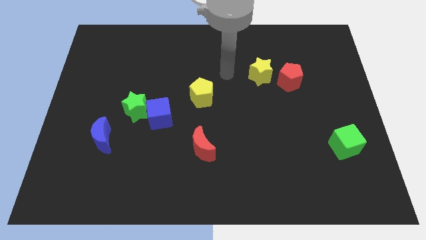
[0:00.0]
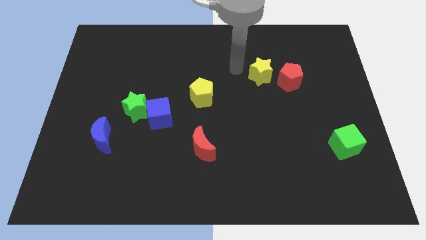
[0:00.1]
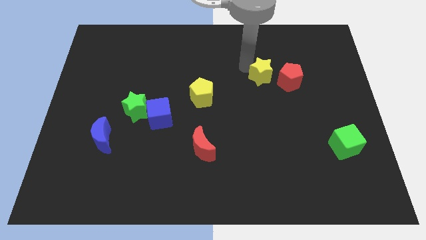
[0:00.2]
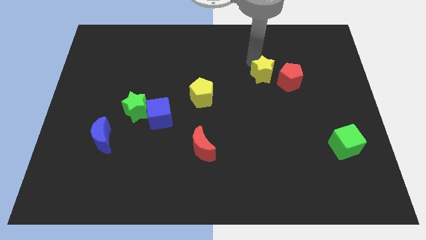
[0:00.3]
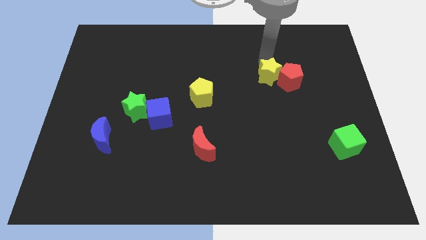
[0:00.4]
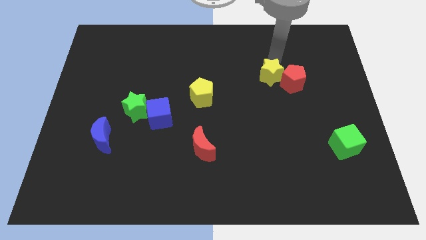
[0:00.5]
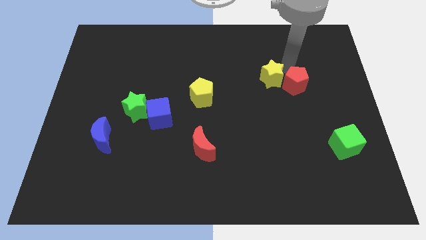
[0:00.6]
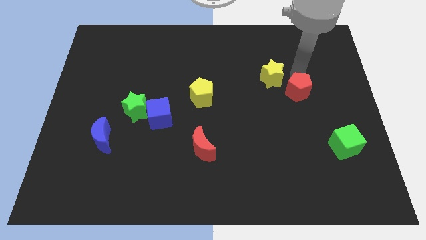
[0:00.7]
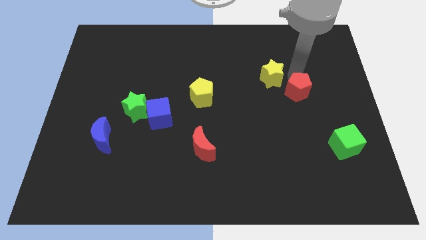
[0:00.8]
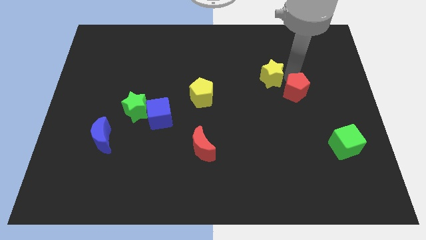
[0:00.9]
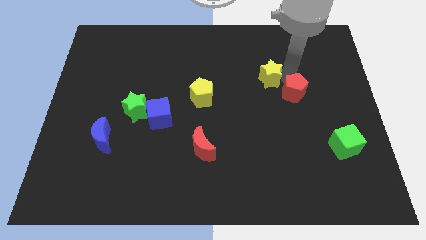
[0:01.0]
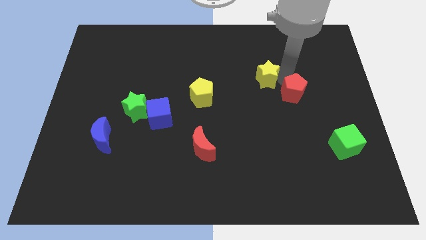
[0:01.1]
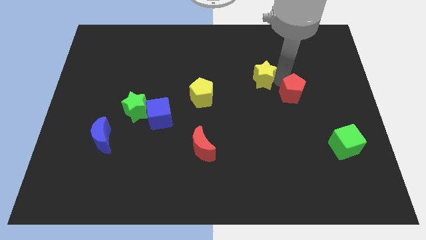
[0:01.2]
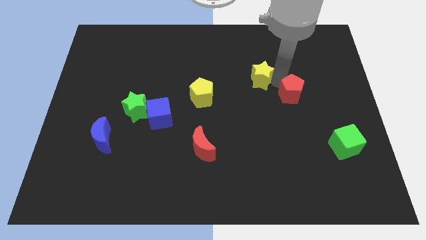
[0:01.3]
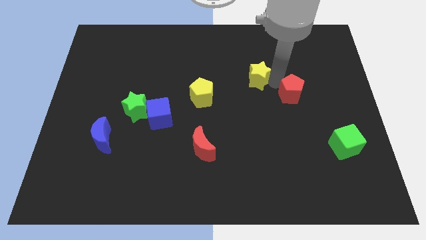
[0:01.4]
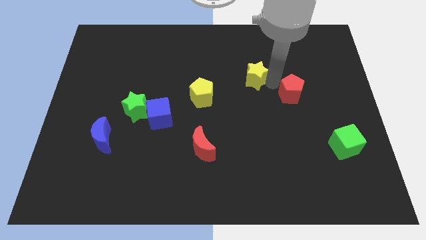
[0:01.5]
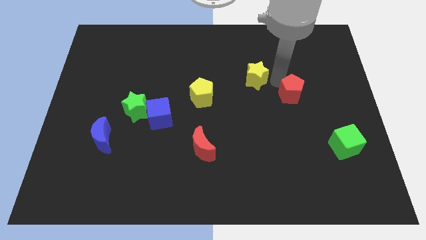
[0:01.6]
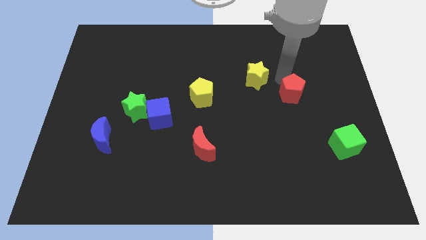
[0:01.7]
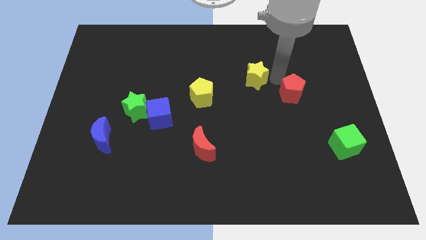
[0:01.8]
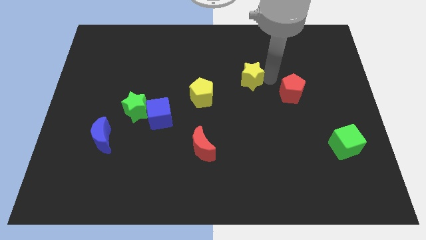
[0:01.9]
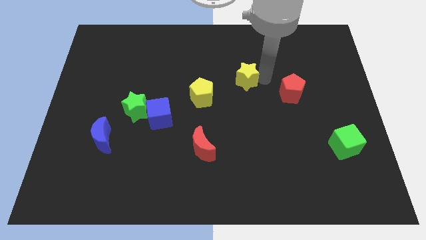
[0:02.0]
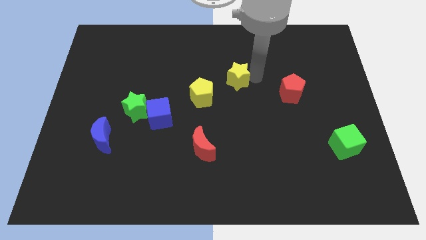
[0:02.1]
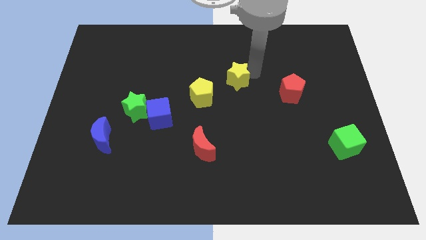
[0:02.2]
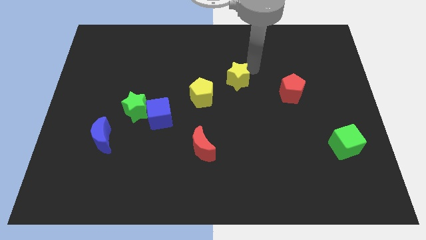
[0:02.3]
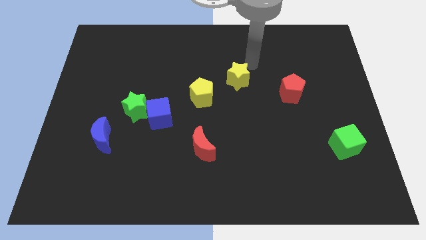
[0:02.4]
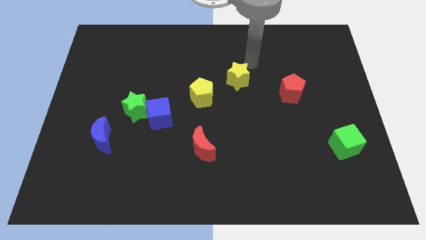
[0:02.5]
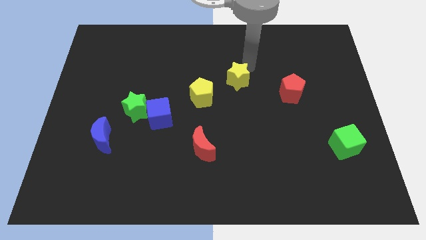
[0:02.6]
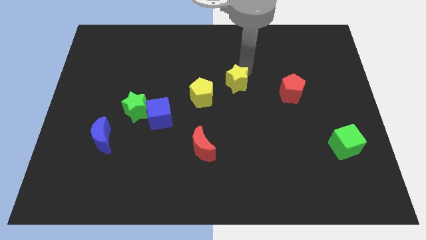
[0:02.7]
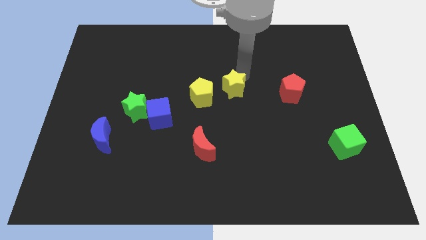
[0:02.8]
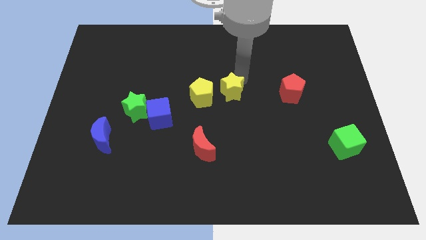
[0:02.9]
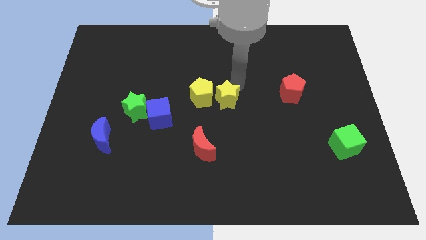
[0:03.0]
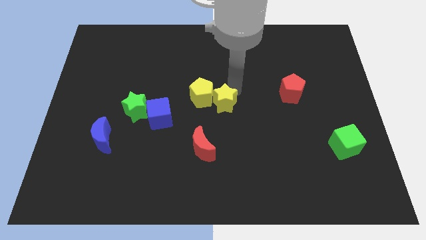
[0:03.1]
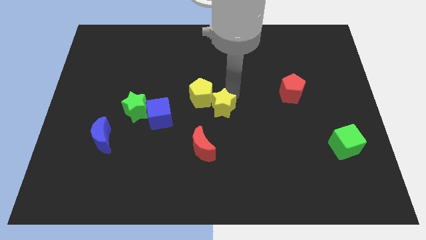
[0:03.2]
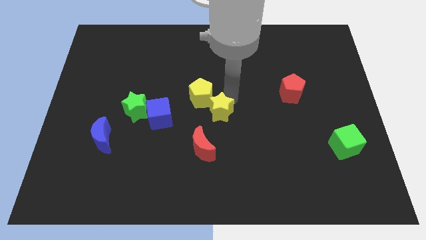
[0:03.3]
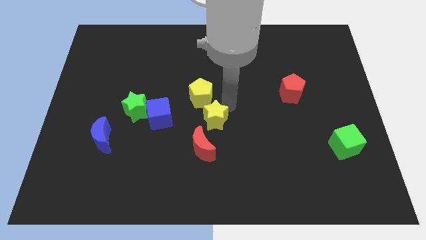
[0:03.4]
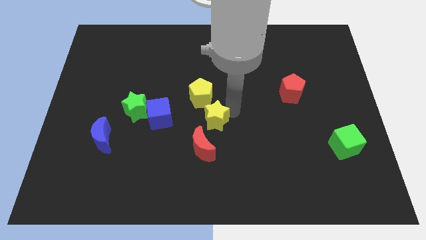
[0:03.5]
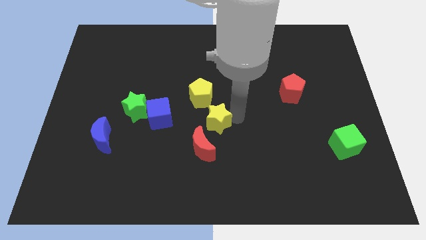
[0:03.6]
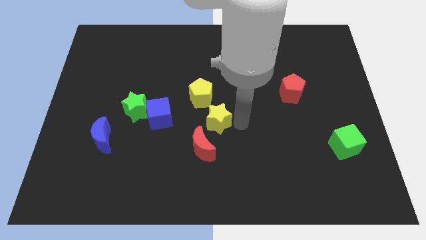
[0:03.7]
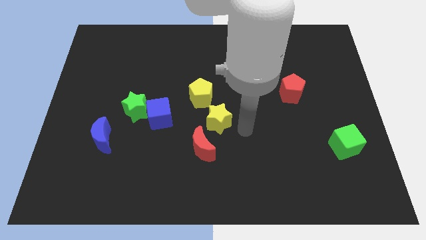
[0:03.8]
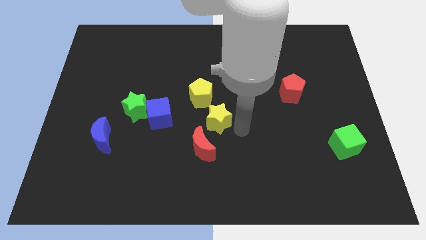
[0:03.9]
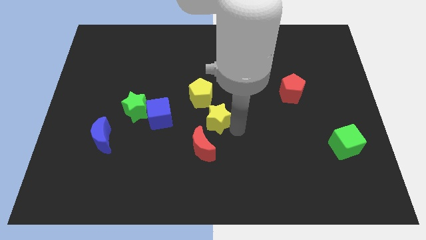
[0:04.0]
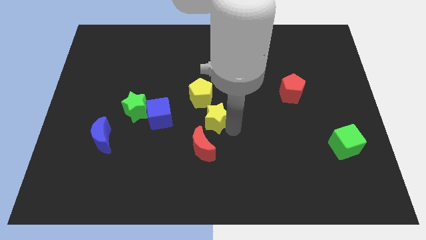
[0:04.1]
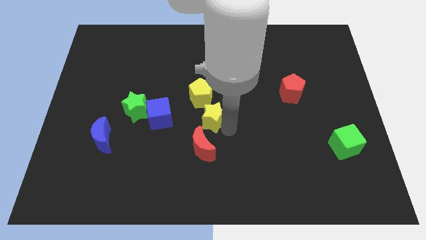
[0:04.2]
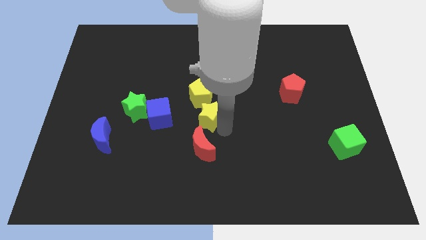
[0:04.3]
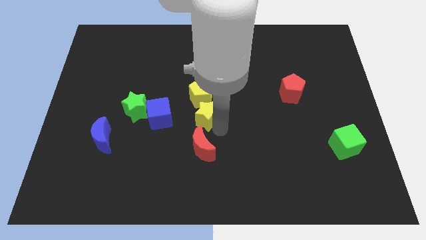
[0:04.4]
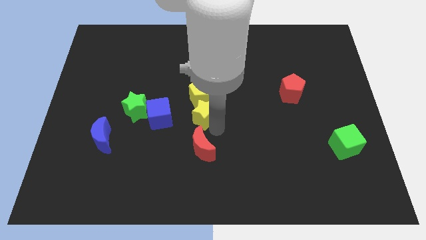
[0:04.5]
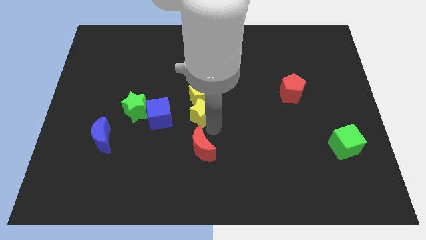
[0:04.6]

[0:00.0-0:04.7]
push the yellow star right of the green star

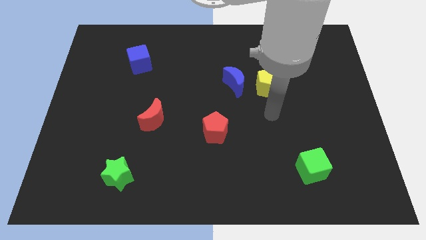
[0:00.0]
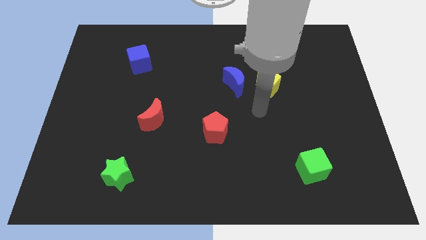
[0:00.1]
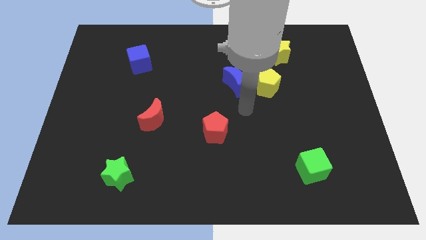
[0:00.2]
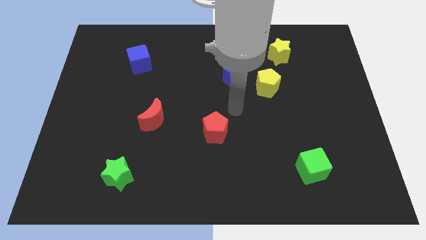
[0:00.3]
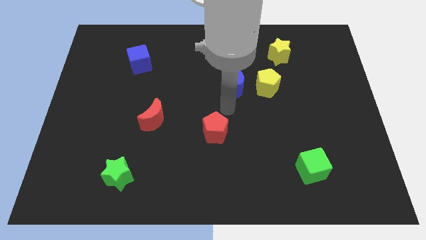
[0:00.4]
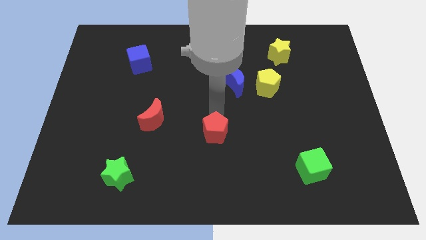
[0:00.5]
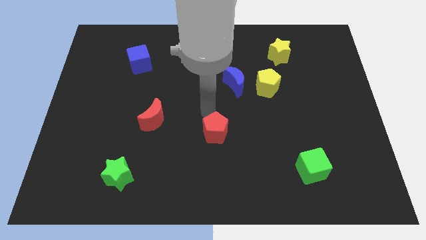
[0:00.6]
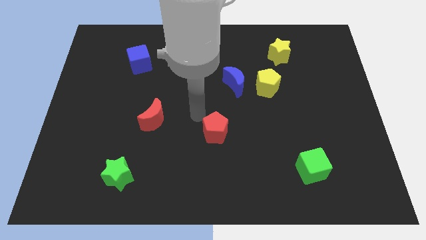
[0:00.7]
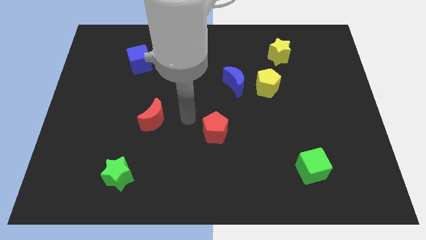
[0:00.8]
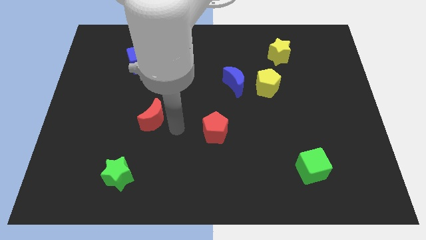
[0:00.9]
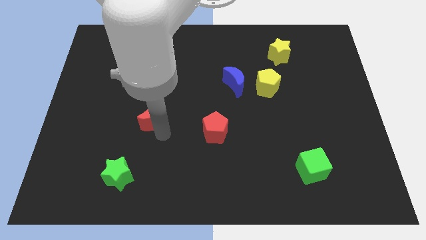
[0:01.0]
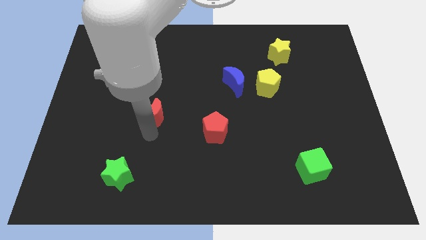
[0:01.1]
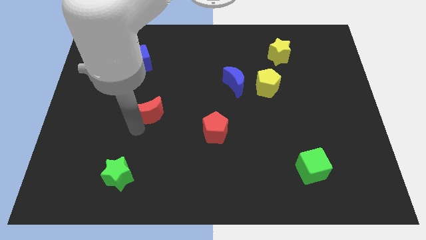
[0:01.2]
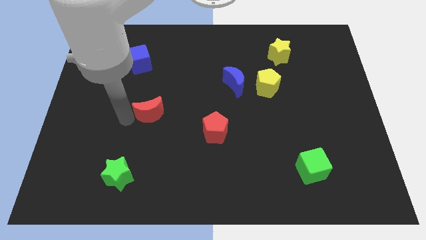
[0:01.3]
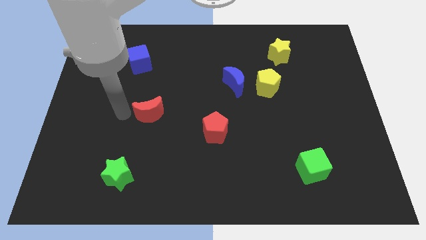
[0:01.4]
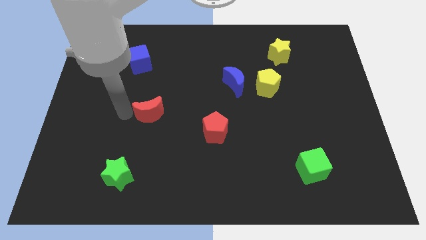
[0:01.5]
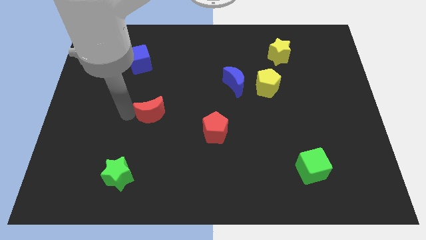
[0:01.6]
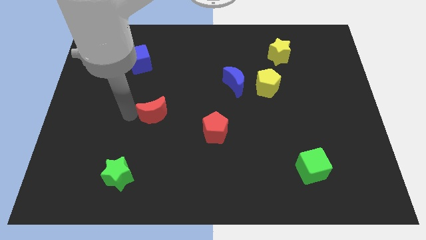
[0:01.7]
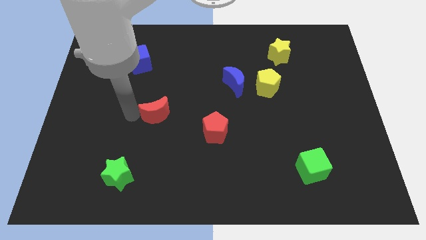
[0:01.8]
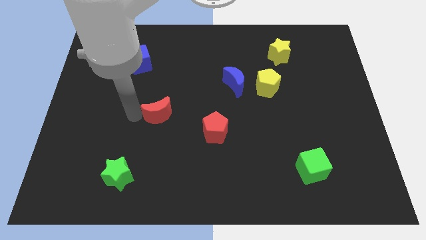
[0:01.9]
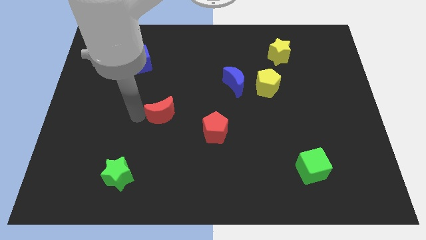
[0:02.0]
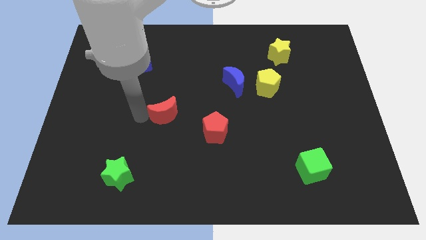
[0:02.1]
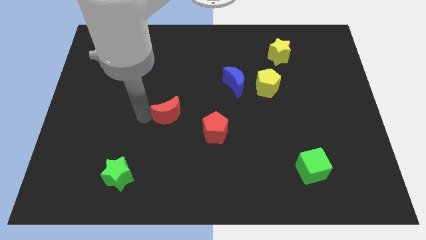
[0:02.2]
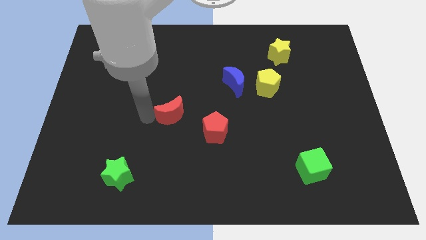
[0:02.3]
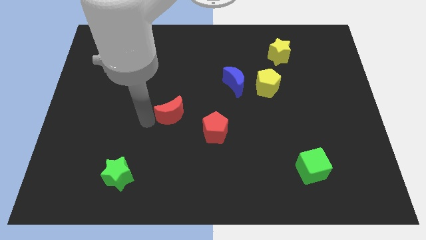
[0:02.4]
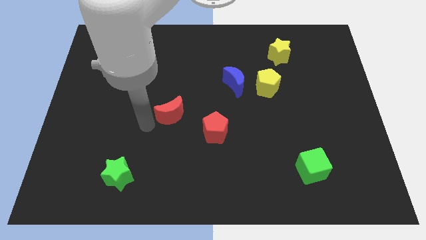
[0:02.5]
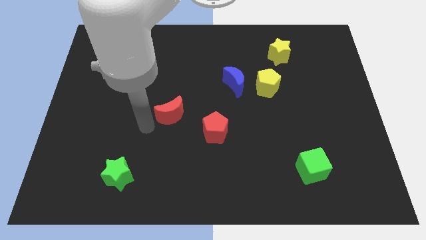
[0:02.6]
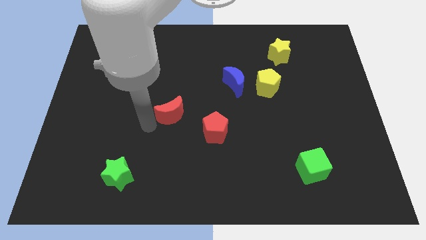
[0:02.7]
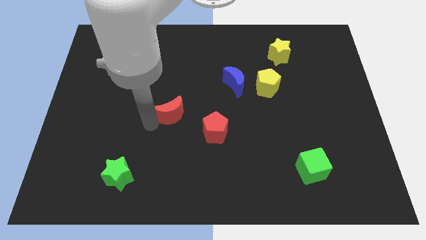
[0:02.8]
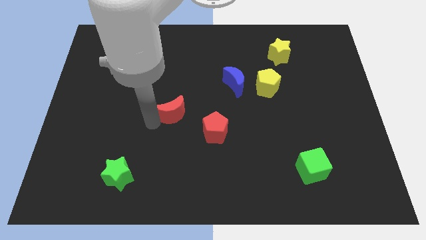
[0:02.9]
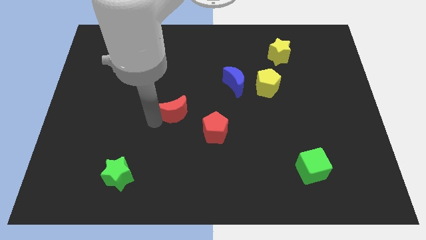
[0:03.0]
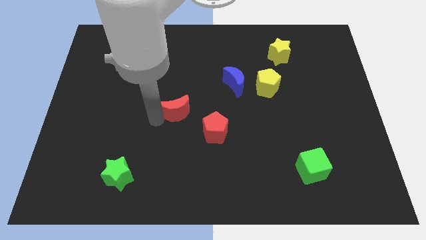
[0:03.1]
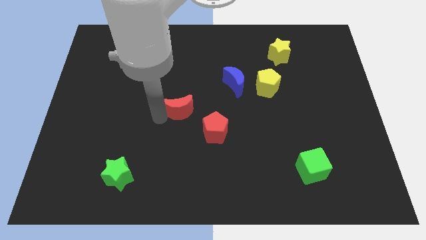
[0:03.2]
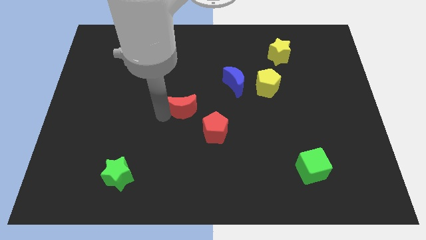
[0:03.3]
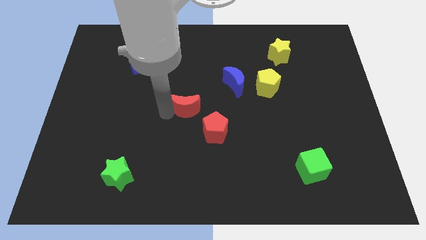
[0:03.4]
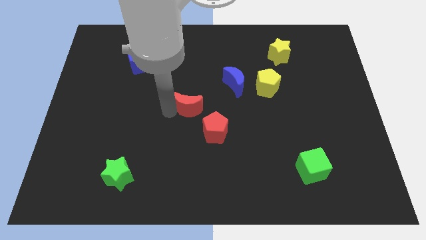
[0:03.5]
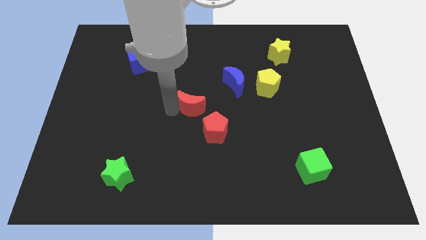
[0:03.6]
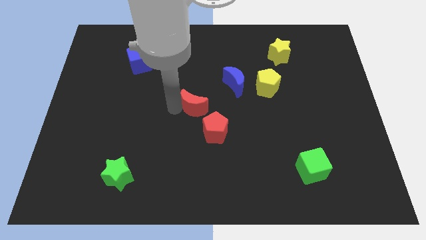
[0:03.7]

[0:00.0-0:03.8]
slide the red moon diagonally down and to the left of the blue moon
